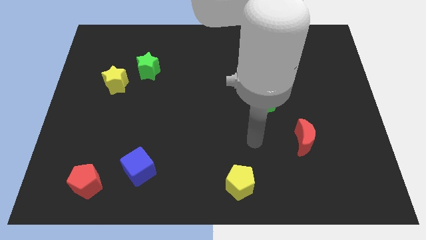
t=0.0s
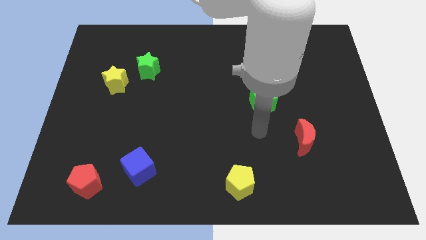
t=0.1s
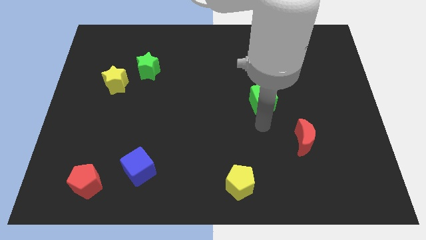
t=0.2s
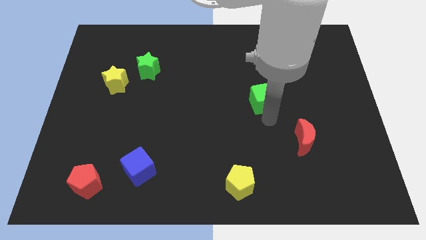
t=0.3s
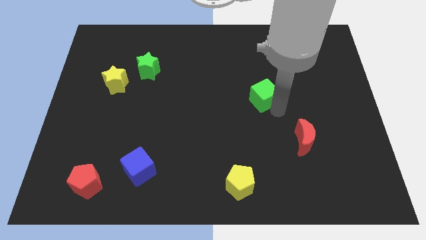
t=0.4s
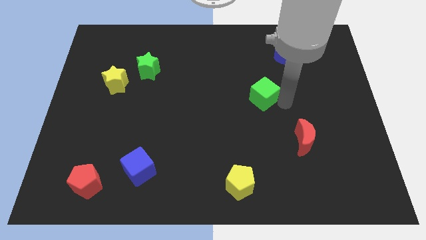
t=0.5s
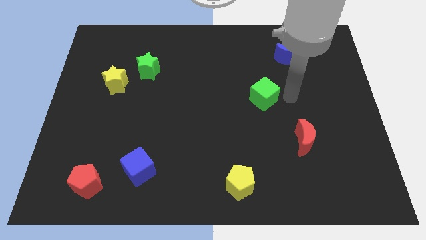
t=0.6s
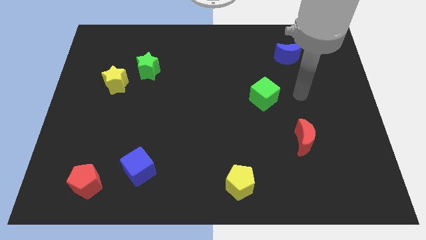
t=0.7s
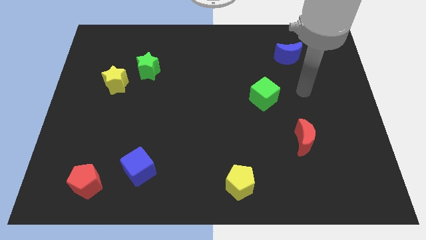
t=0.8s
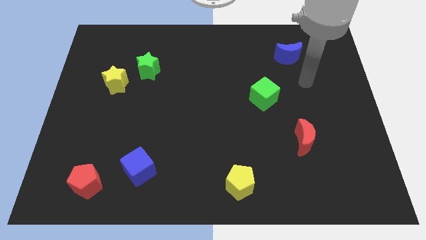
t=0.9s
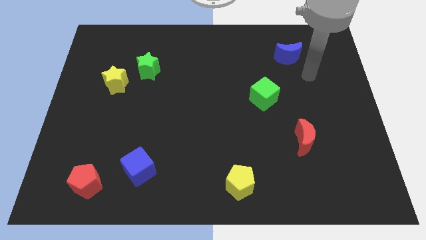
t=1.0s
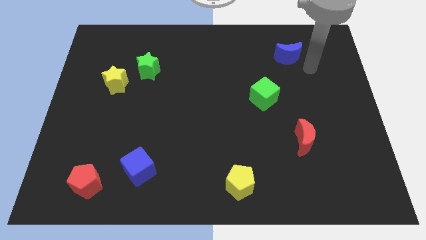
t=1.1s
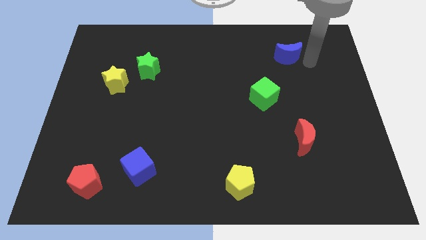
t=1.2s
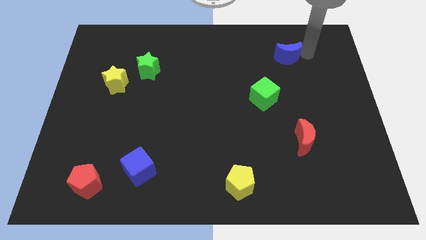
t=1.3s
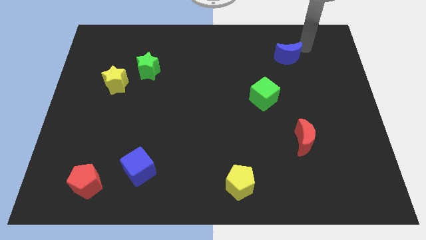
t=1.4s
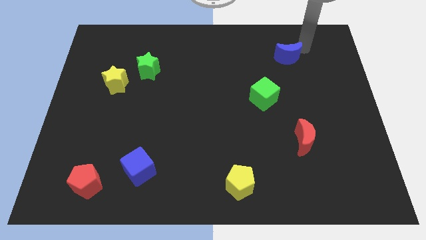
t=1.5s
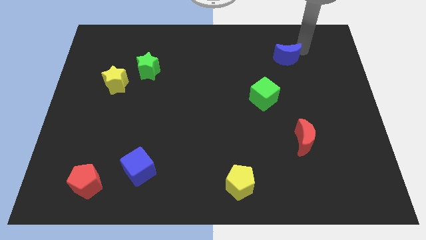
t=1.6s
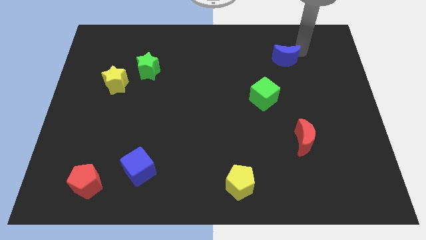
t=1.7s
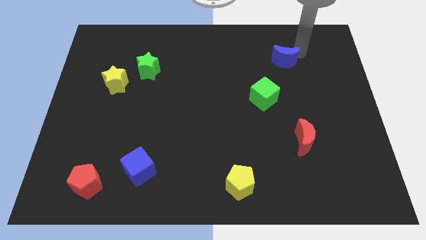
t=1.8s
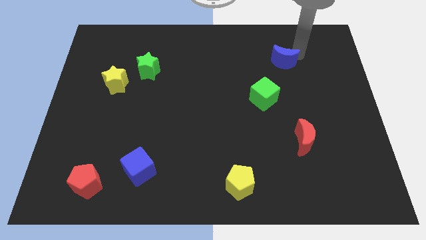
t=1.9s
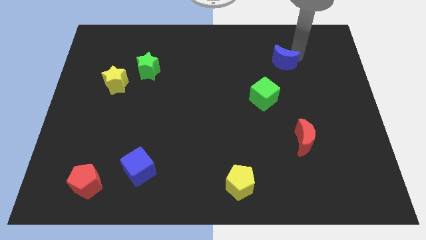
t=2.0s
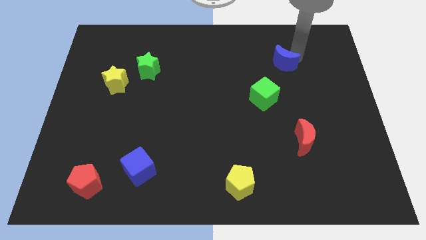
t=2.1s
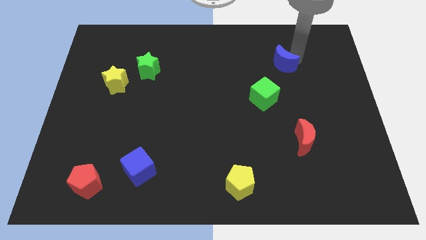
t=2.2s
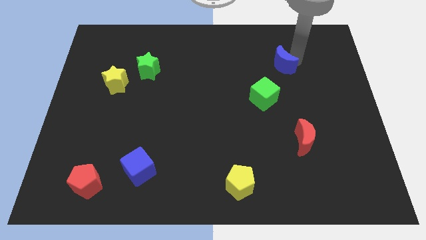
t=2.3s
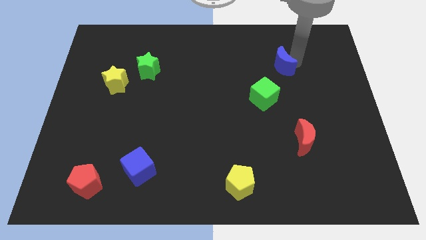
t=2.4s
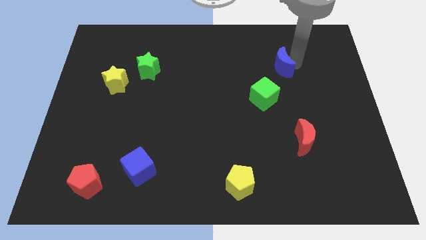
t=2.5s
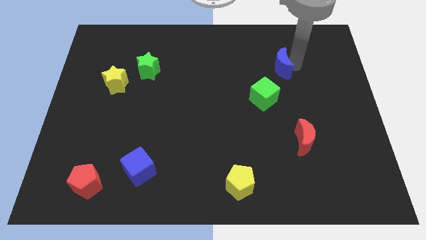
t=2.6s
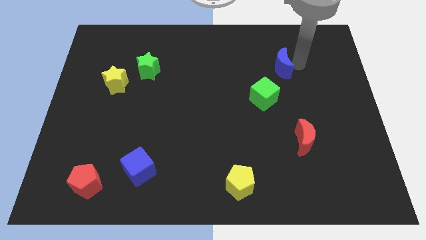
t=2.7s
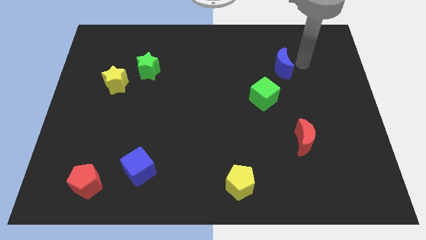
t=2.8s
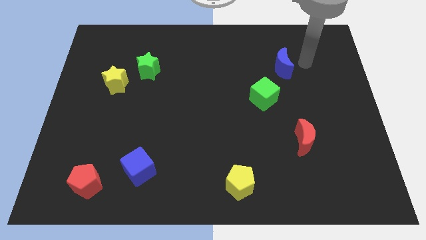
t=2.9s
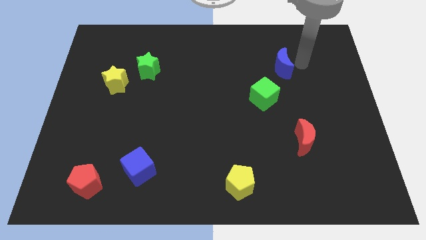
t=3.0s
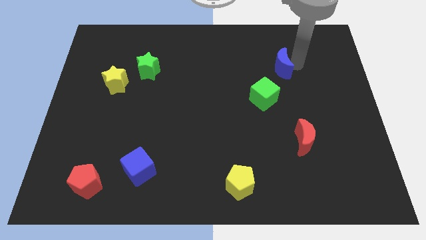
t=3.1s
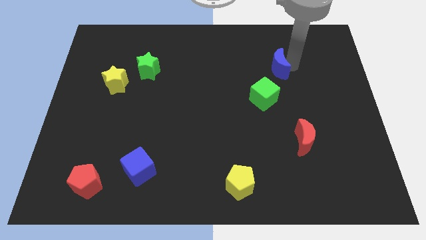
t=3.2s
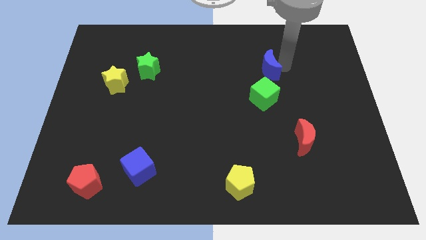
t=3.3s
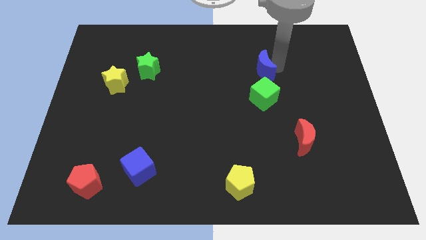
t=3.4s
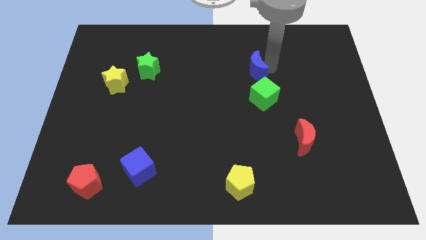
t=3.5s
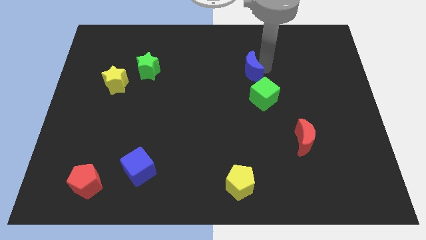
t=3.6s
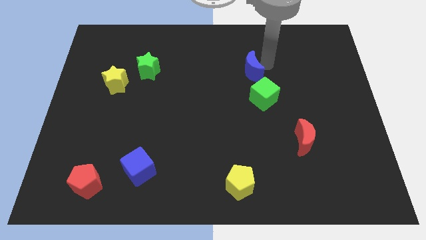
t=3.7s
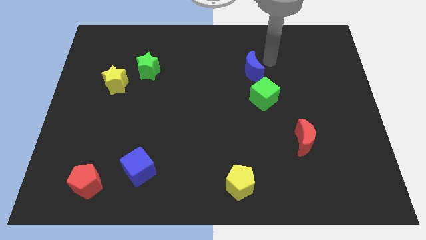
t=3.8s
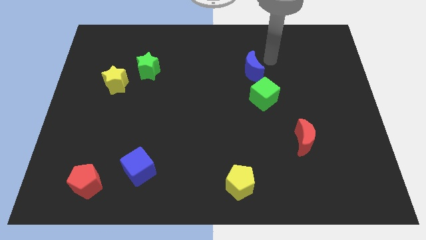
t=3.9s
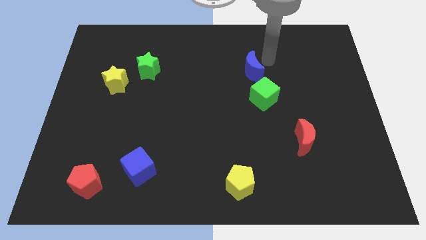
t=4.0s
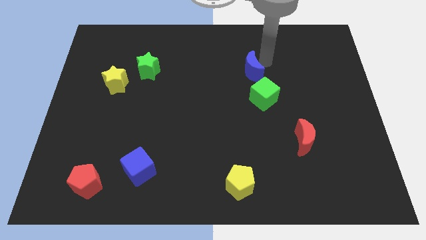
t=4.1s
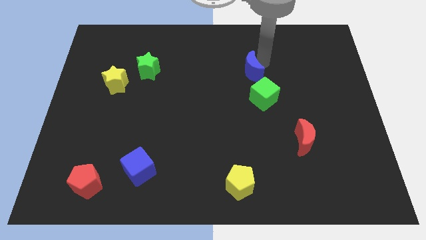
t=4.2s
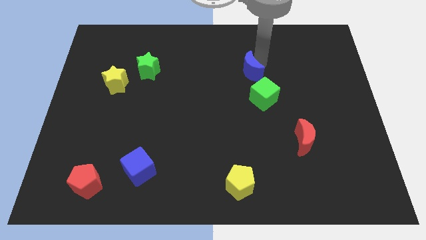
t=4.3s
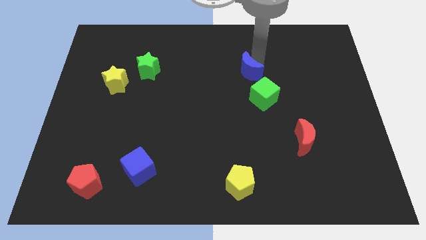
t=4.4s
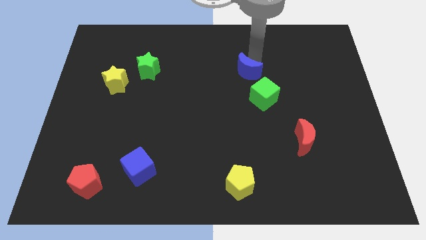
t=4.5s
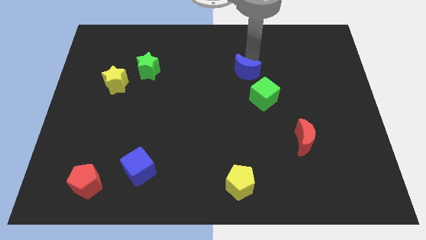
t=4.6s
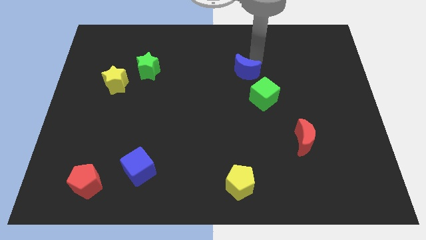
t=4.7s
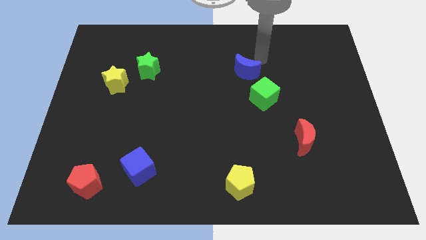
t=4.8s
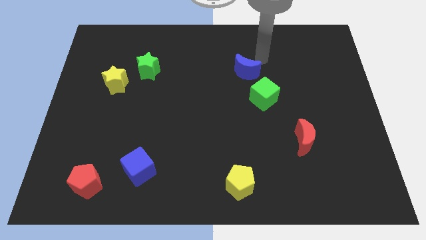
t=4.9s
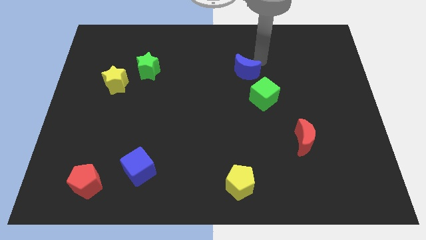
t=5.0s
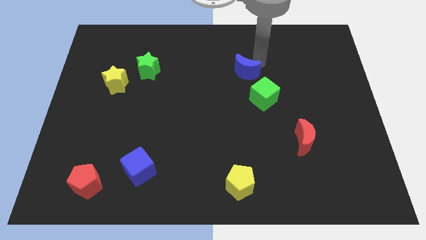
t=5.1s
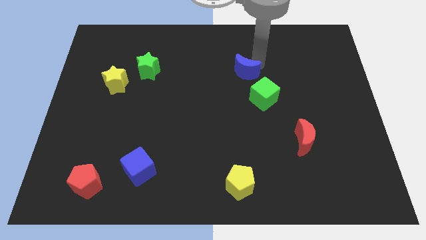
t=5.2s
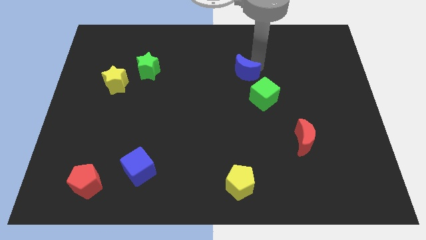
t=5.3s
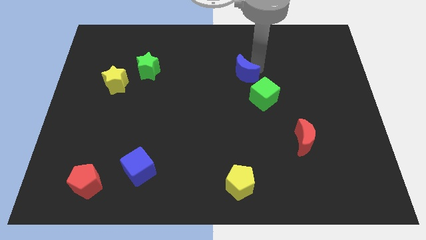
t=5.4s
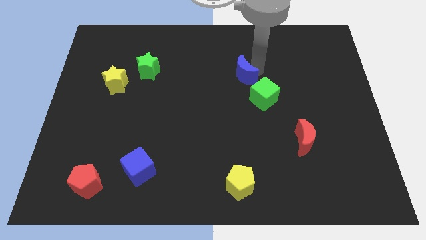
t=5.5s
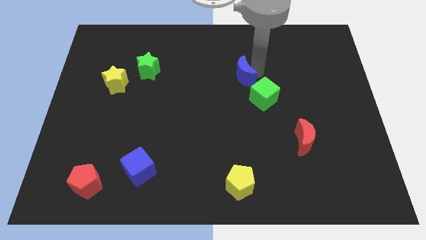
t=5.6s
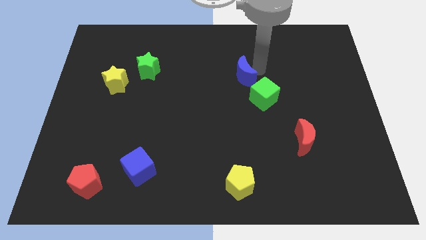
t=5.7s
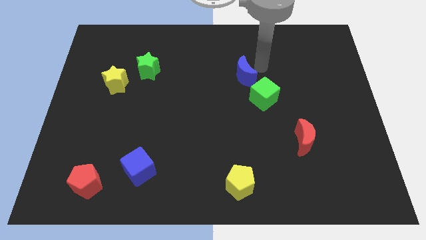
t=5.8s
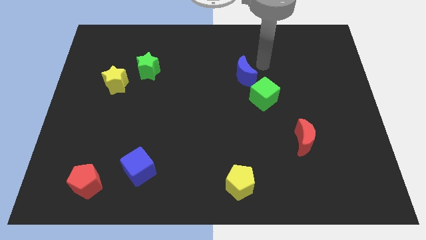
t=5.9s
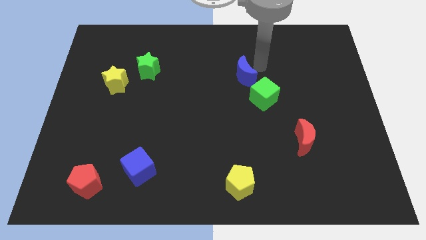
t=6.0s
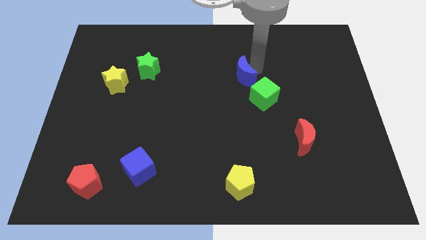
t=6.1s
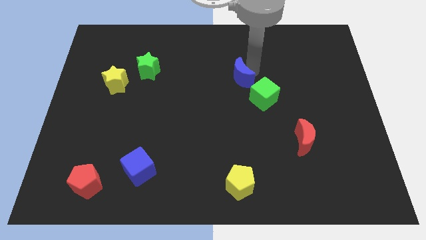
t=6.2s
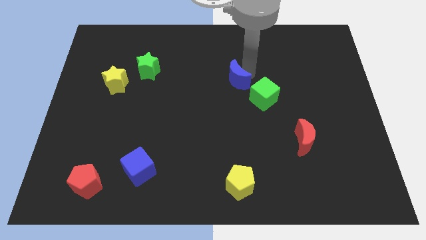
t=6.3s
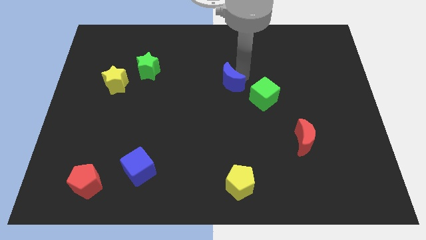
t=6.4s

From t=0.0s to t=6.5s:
move the blue moon left of the green cube

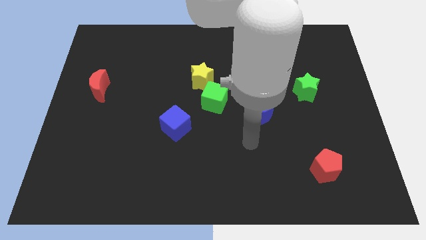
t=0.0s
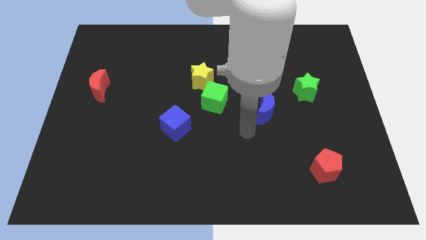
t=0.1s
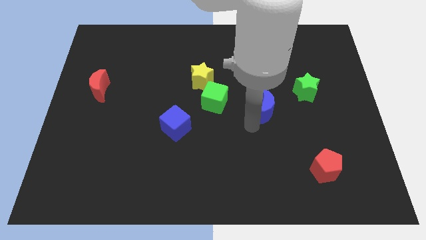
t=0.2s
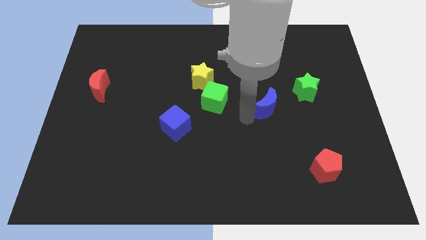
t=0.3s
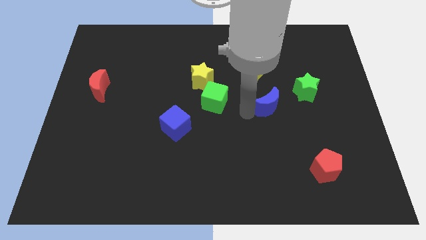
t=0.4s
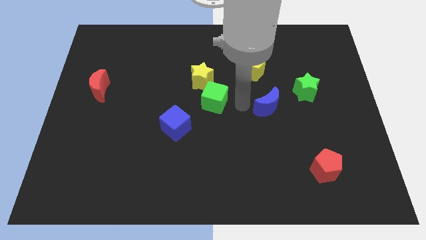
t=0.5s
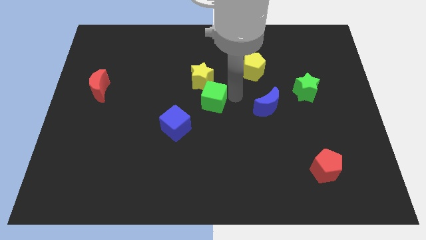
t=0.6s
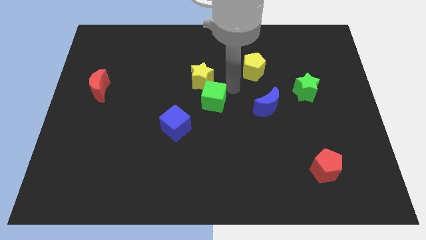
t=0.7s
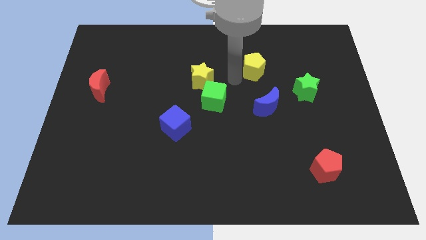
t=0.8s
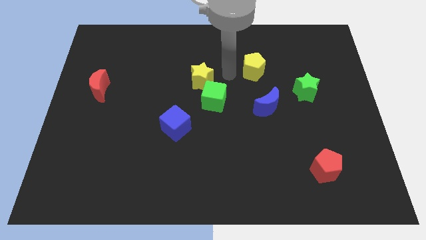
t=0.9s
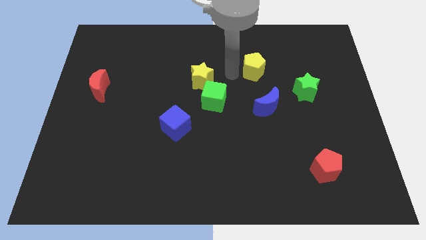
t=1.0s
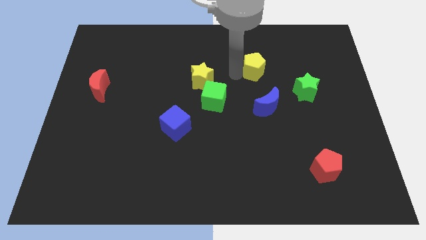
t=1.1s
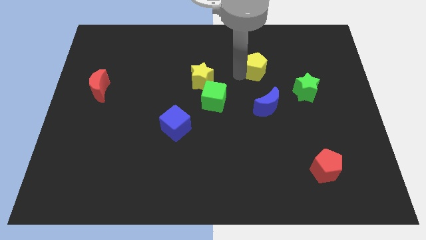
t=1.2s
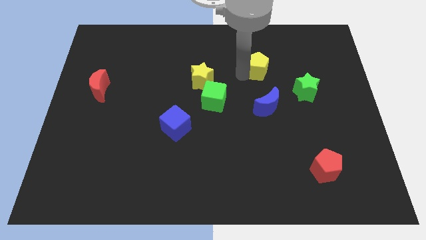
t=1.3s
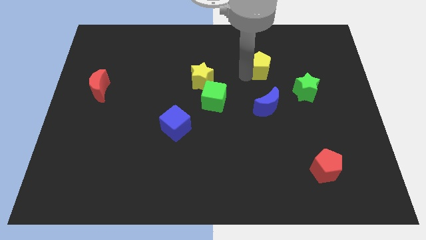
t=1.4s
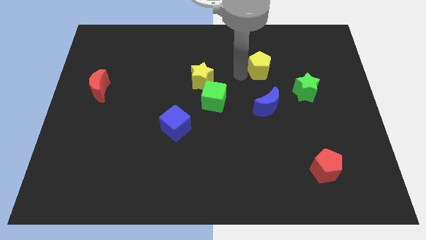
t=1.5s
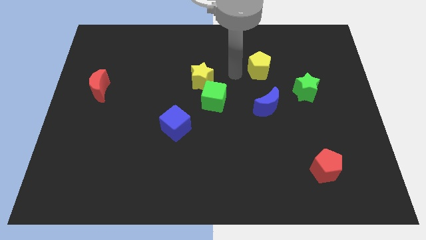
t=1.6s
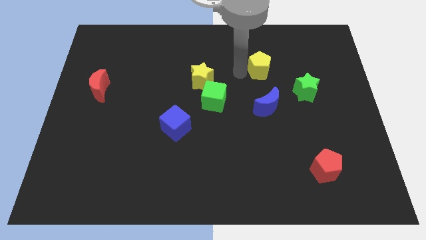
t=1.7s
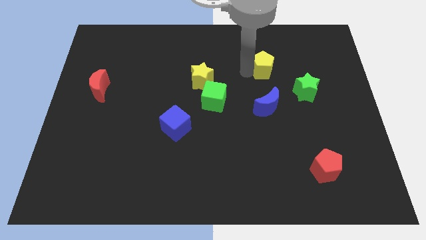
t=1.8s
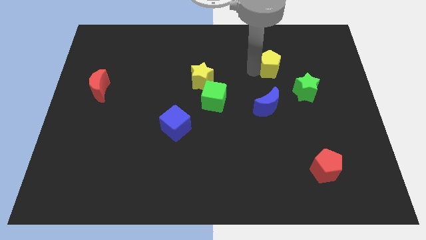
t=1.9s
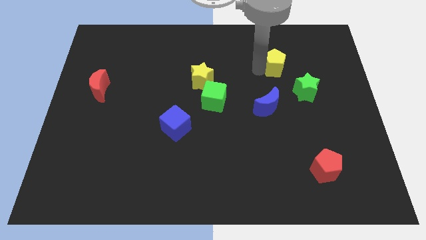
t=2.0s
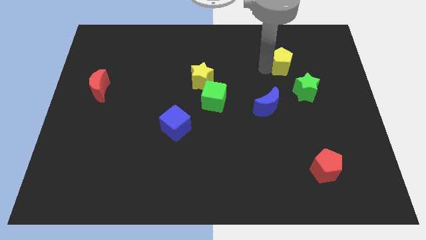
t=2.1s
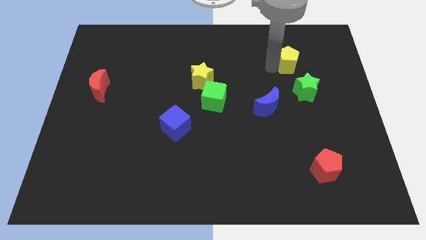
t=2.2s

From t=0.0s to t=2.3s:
push the yellow pentagon to the top side of the green star
